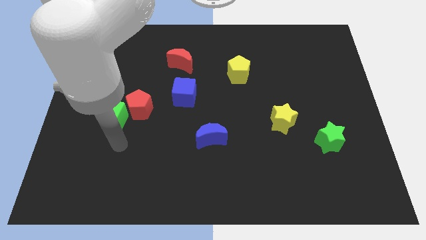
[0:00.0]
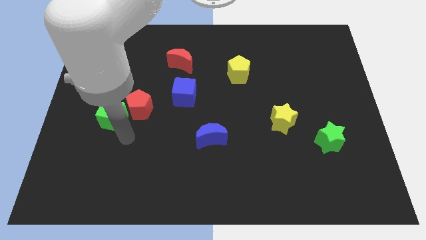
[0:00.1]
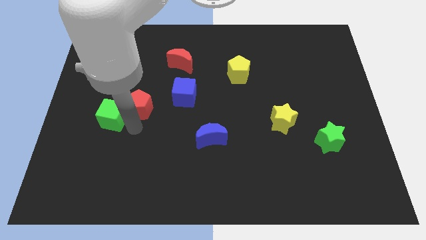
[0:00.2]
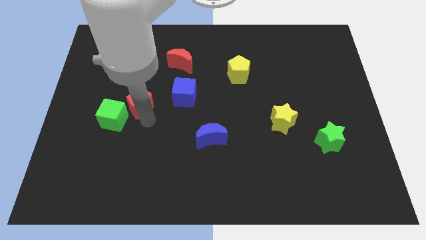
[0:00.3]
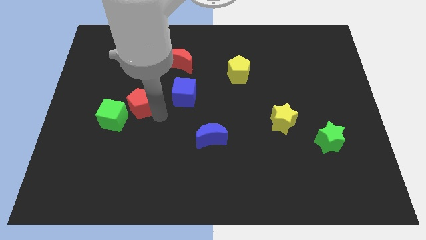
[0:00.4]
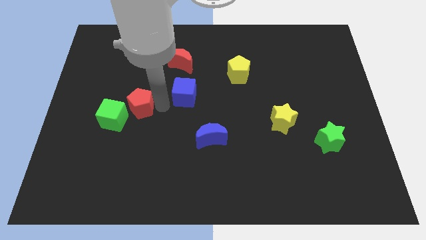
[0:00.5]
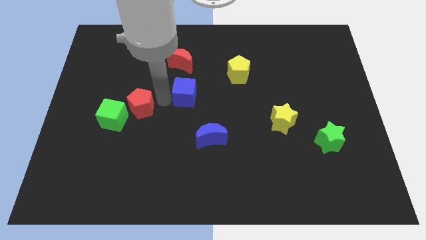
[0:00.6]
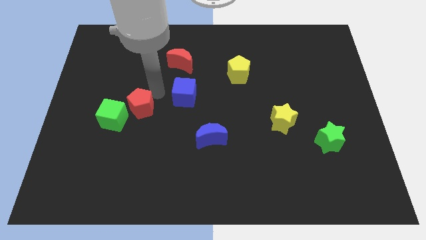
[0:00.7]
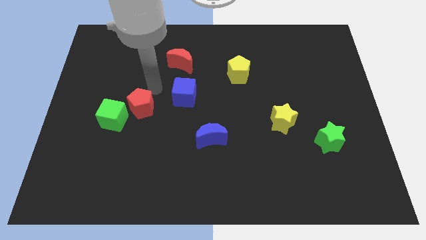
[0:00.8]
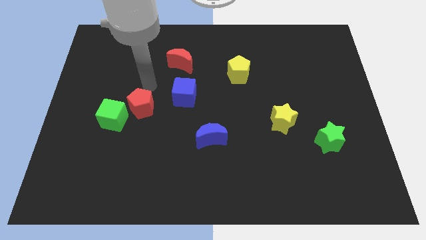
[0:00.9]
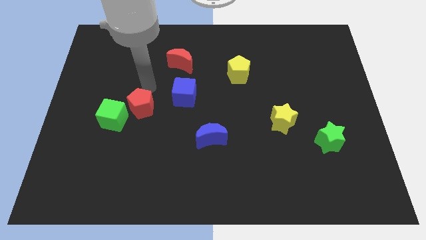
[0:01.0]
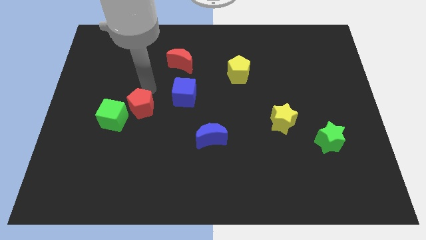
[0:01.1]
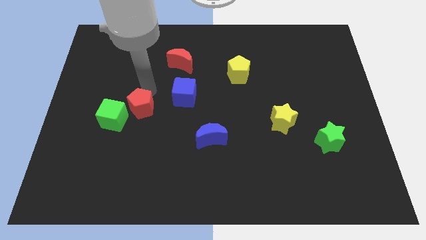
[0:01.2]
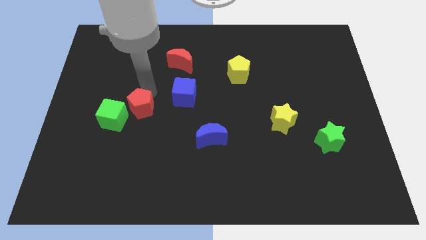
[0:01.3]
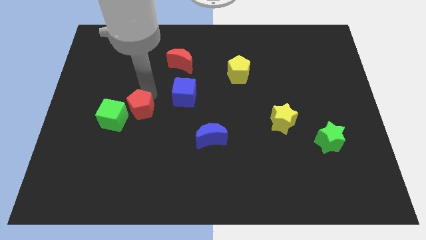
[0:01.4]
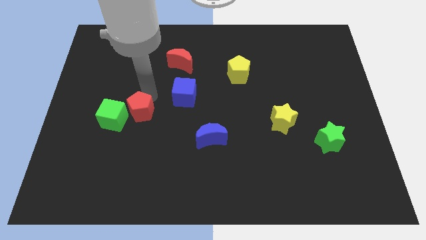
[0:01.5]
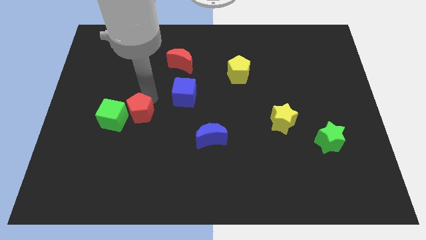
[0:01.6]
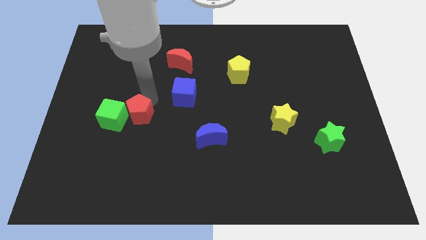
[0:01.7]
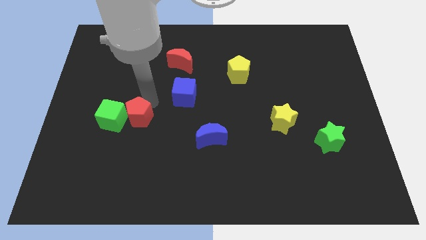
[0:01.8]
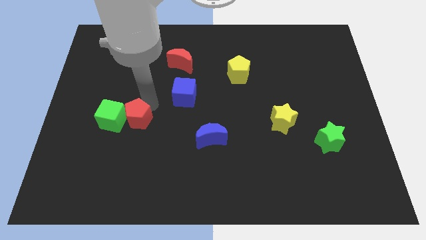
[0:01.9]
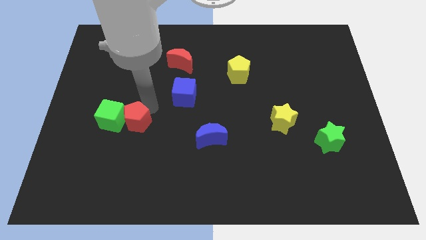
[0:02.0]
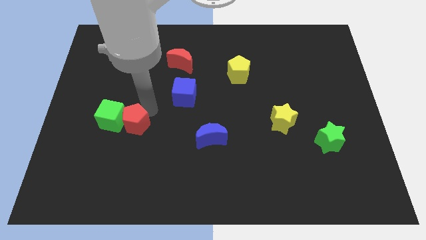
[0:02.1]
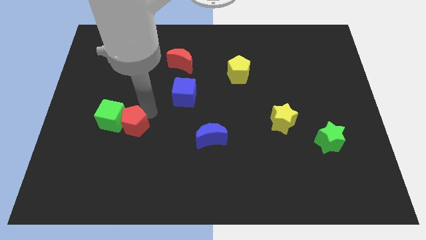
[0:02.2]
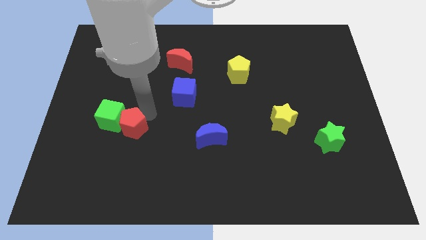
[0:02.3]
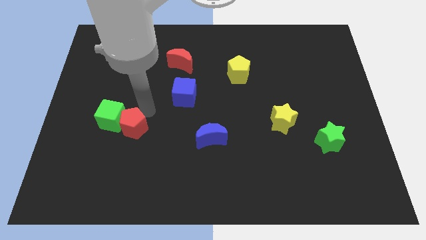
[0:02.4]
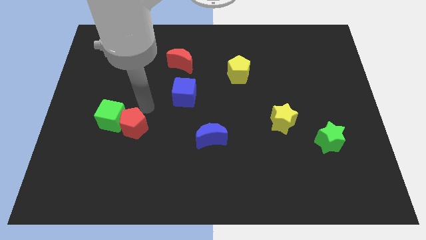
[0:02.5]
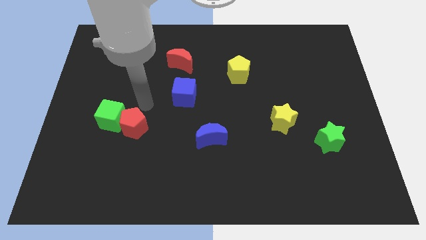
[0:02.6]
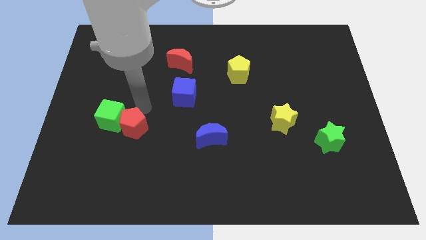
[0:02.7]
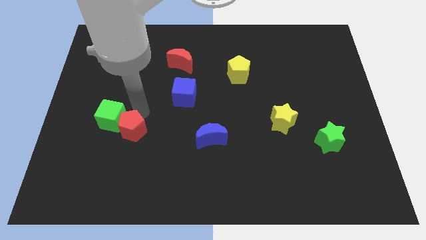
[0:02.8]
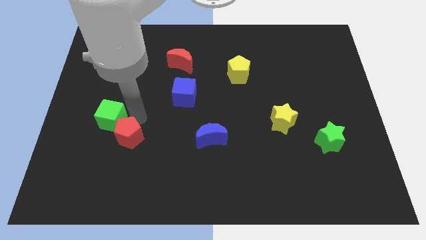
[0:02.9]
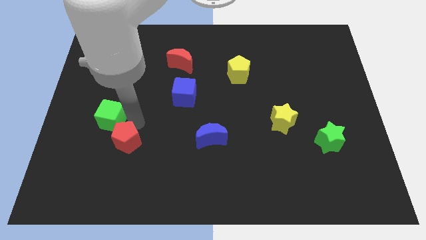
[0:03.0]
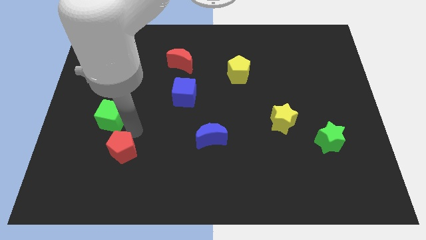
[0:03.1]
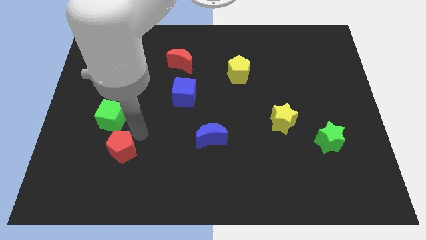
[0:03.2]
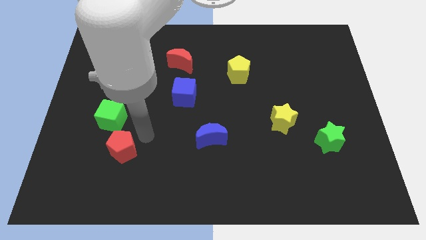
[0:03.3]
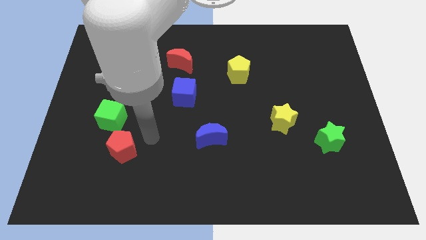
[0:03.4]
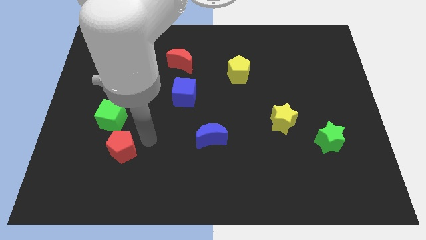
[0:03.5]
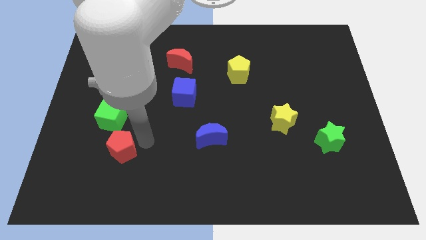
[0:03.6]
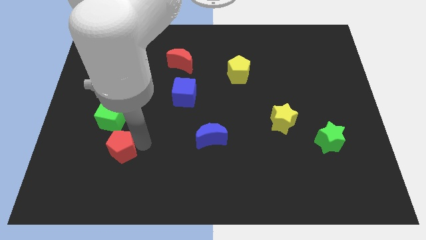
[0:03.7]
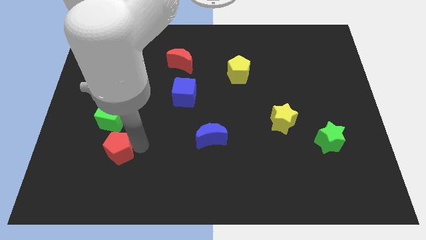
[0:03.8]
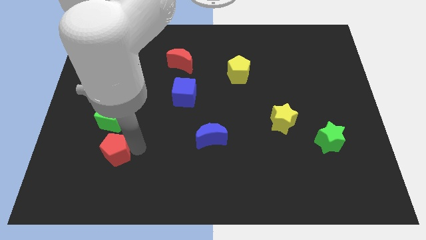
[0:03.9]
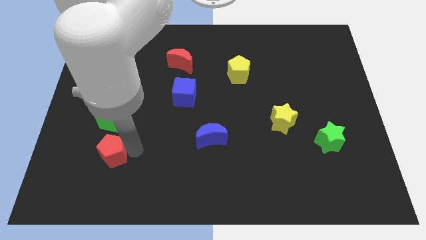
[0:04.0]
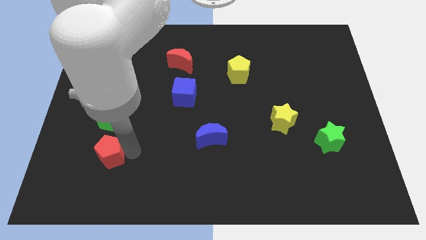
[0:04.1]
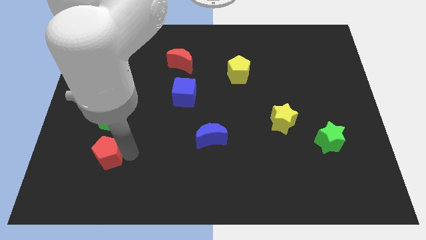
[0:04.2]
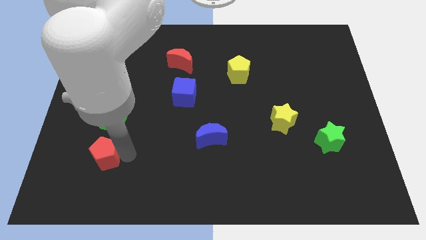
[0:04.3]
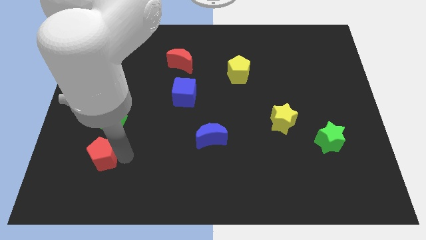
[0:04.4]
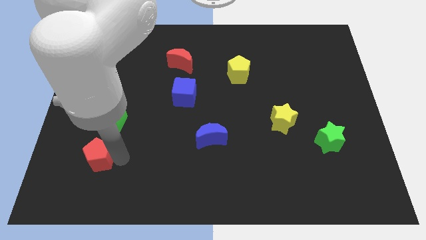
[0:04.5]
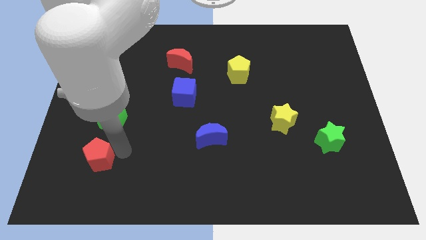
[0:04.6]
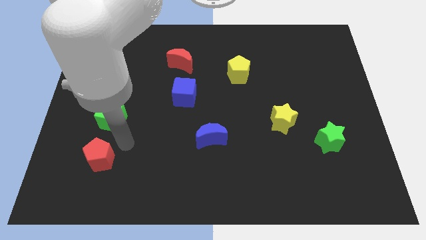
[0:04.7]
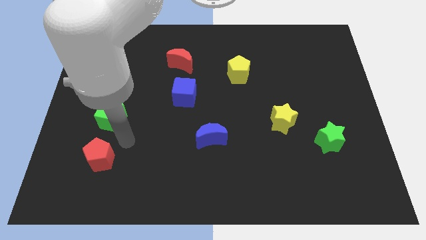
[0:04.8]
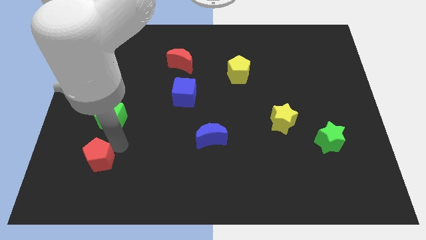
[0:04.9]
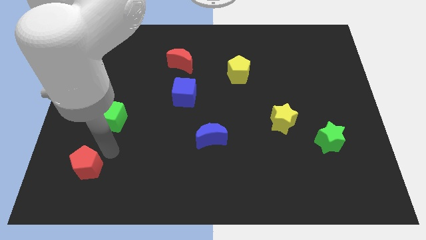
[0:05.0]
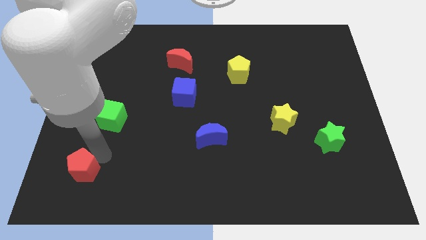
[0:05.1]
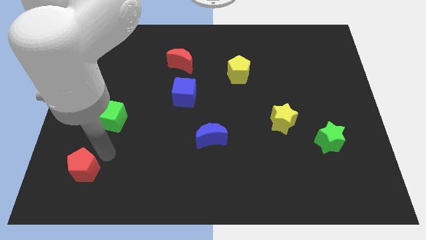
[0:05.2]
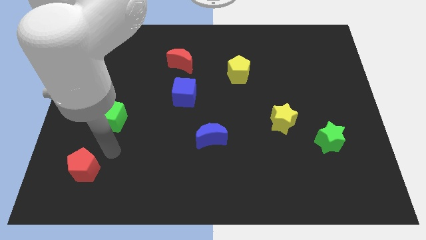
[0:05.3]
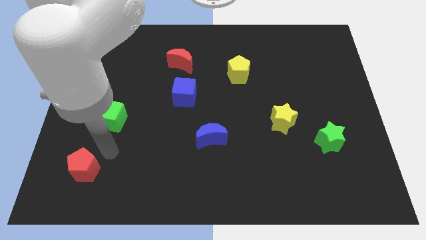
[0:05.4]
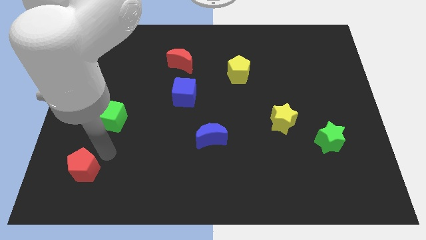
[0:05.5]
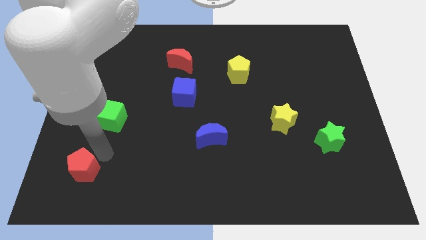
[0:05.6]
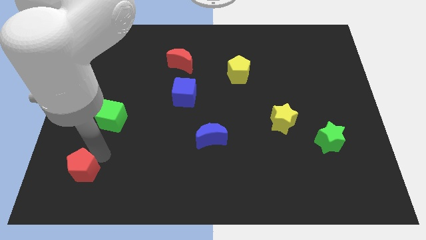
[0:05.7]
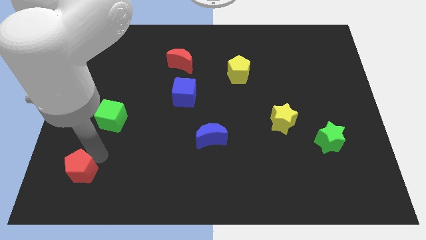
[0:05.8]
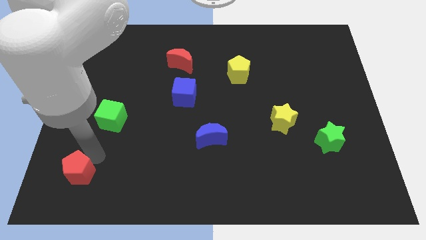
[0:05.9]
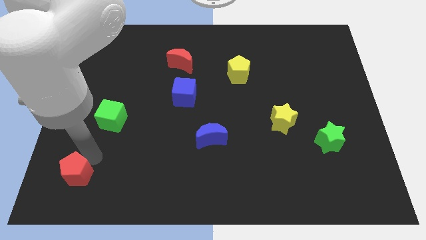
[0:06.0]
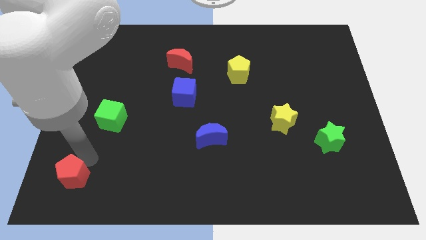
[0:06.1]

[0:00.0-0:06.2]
slide the red pentagon to the bottom left corner
